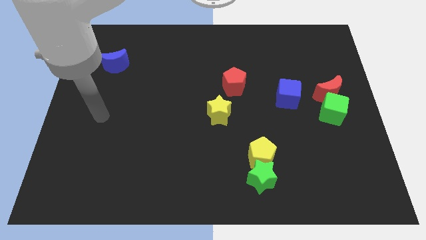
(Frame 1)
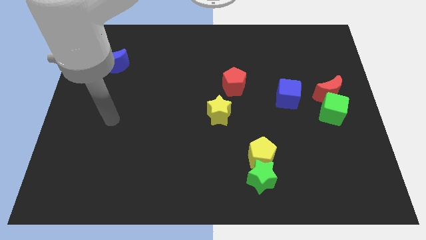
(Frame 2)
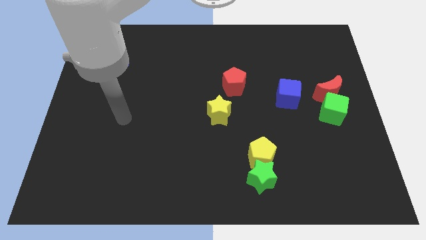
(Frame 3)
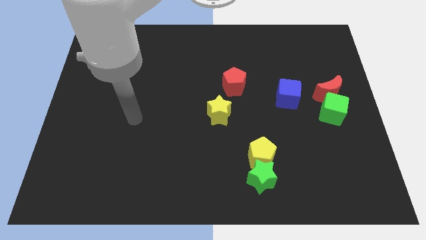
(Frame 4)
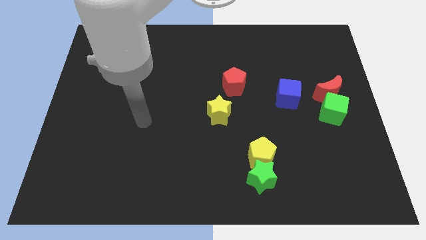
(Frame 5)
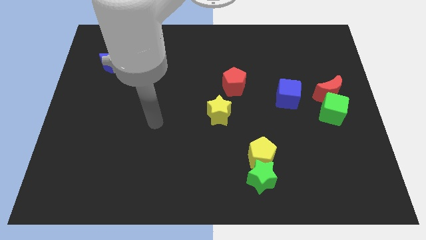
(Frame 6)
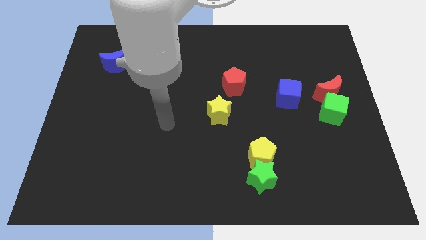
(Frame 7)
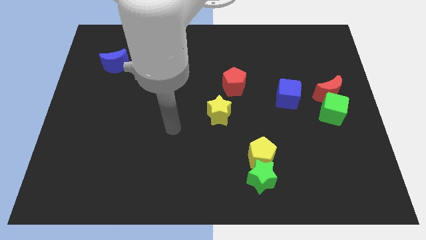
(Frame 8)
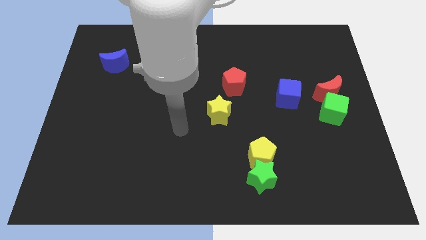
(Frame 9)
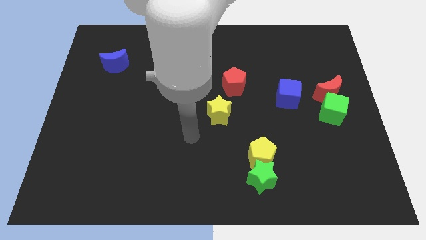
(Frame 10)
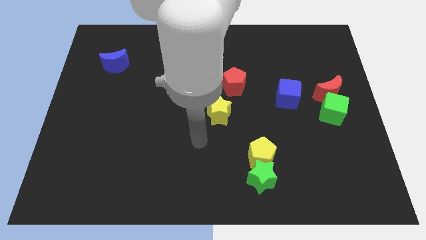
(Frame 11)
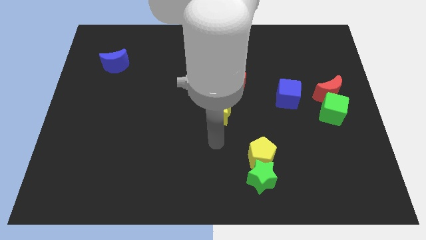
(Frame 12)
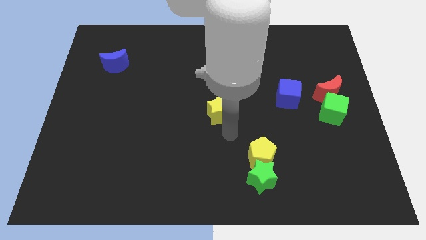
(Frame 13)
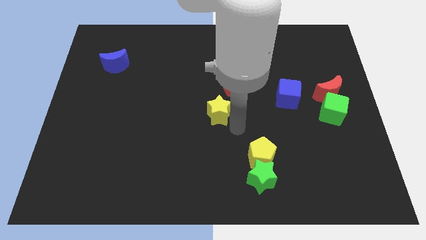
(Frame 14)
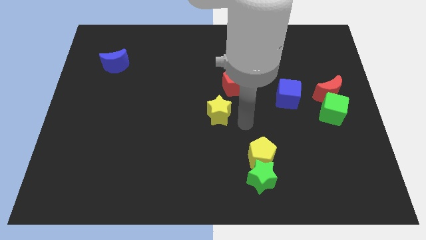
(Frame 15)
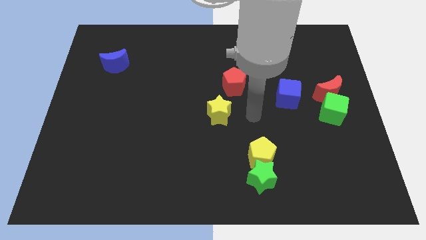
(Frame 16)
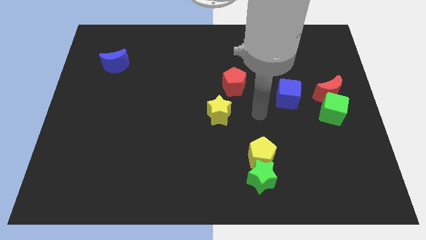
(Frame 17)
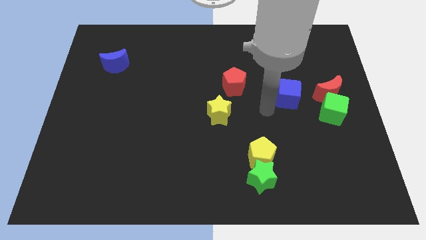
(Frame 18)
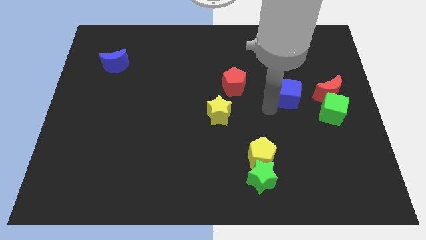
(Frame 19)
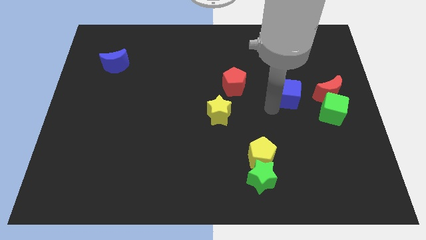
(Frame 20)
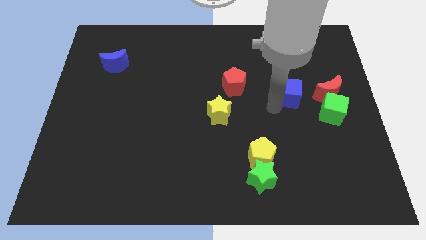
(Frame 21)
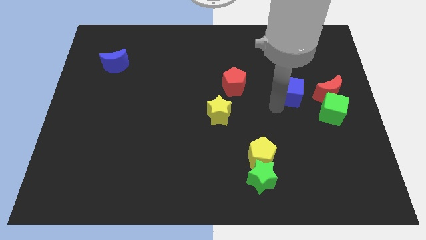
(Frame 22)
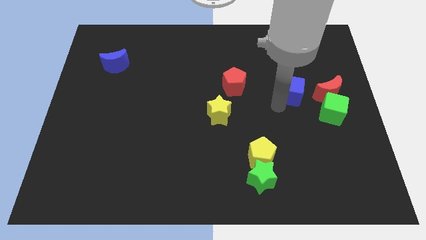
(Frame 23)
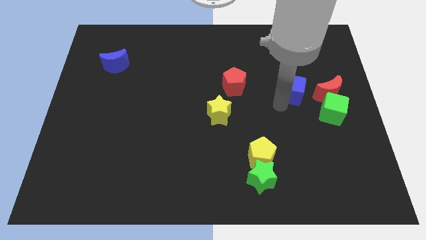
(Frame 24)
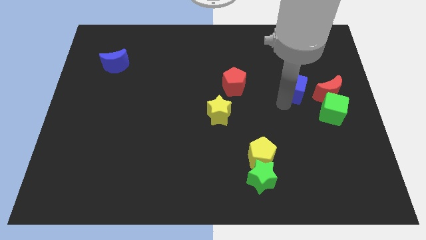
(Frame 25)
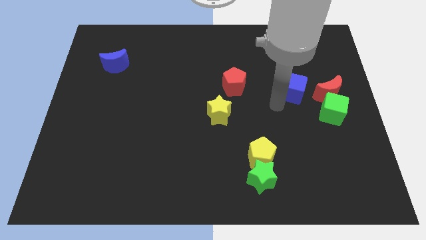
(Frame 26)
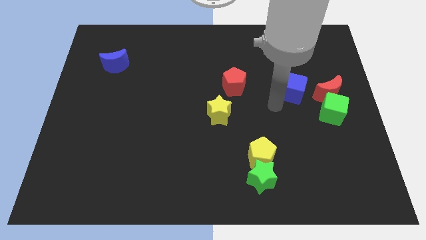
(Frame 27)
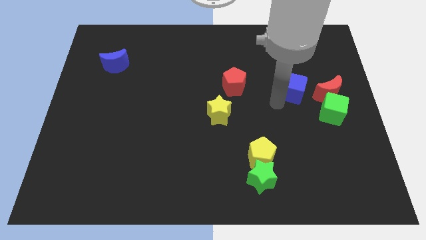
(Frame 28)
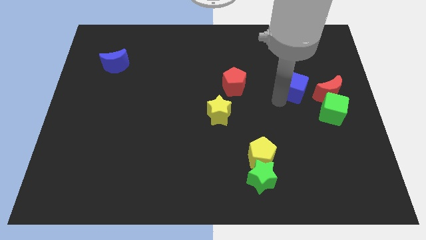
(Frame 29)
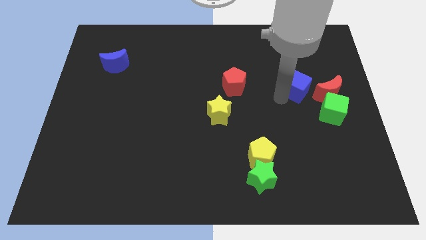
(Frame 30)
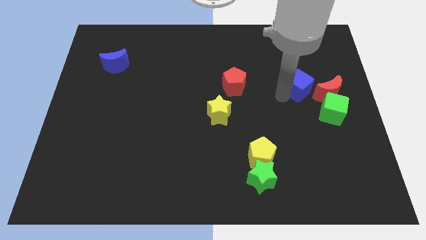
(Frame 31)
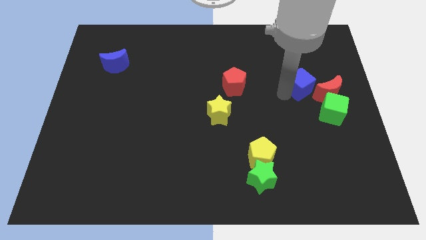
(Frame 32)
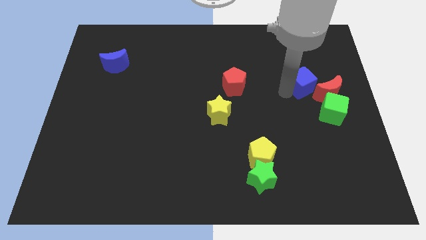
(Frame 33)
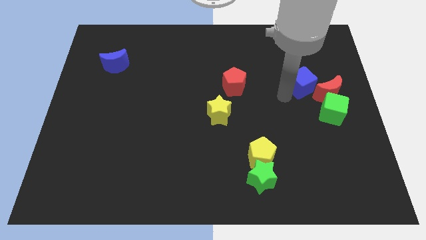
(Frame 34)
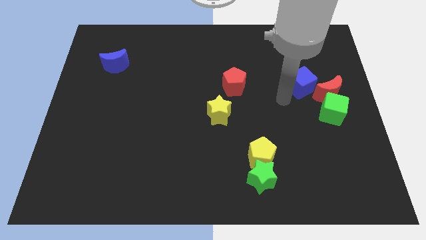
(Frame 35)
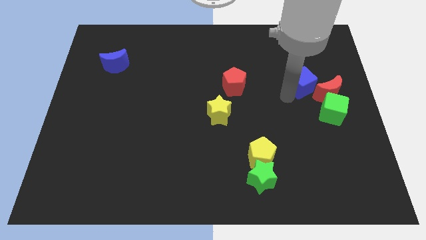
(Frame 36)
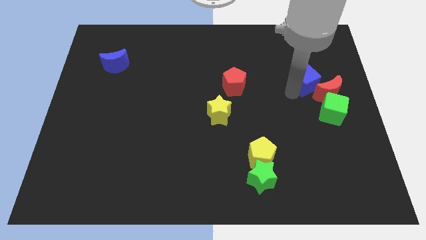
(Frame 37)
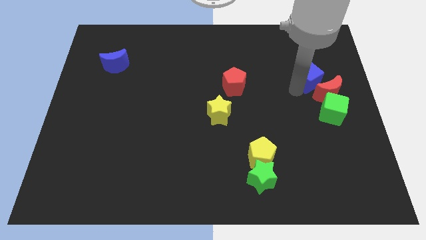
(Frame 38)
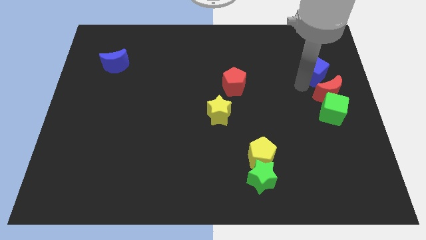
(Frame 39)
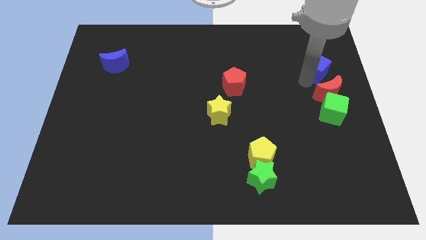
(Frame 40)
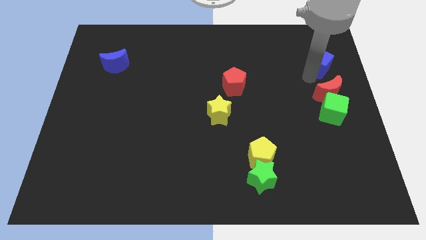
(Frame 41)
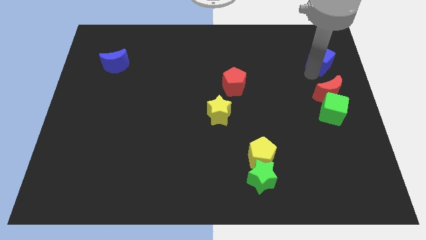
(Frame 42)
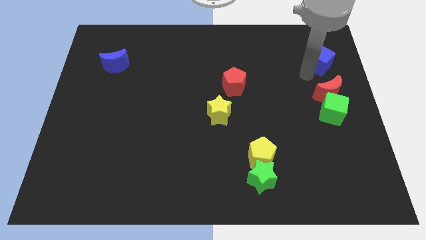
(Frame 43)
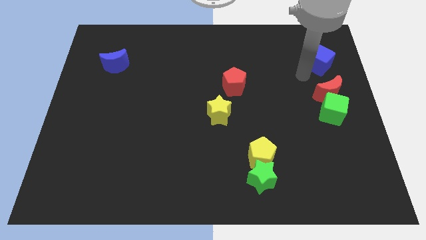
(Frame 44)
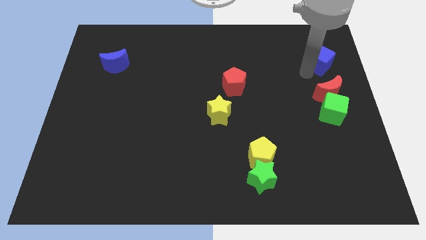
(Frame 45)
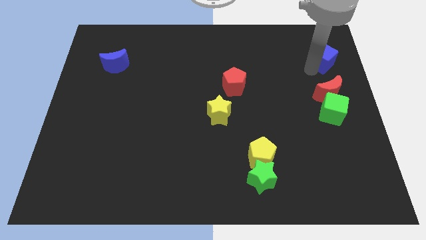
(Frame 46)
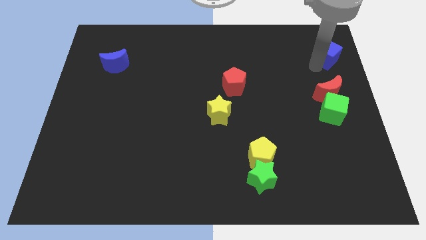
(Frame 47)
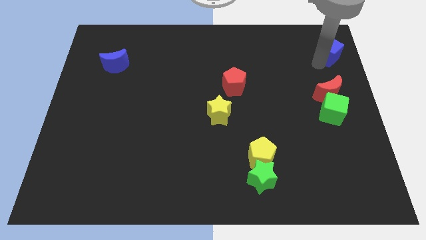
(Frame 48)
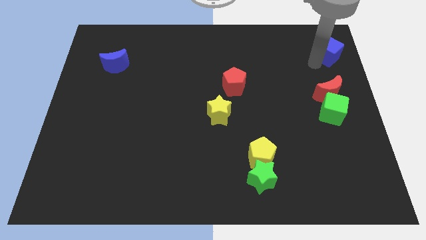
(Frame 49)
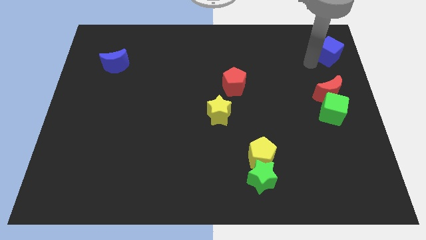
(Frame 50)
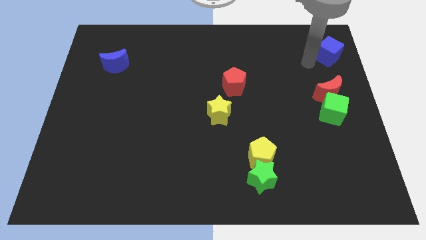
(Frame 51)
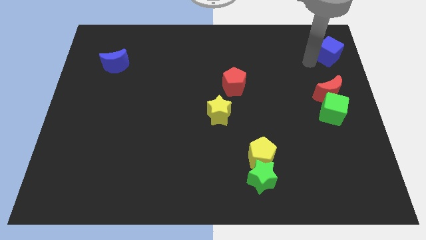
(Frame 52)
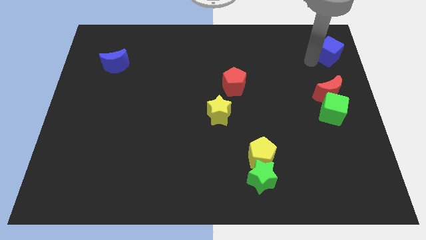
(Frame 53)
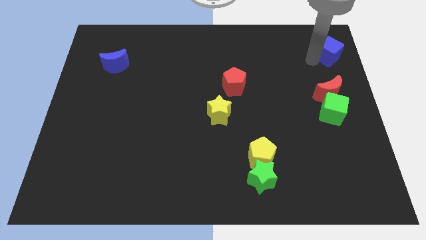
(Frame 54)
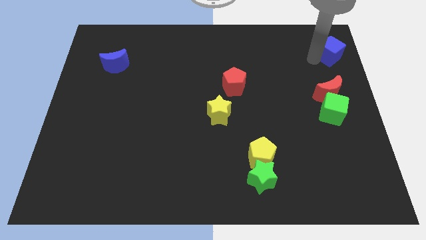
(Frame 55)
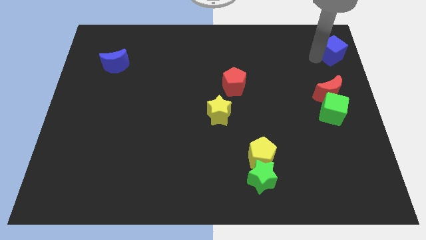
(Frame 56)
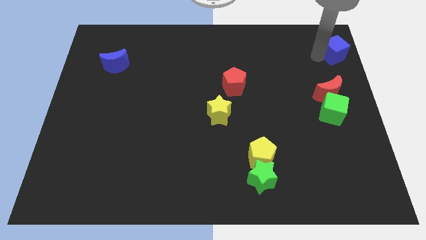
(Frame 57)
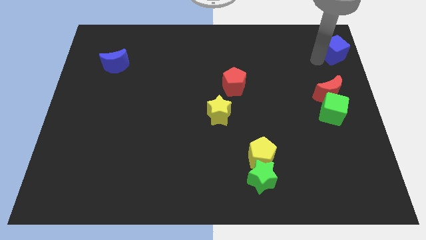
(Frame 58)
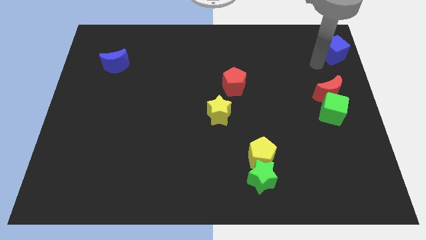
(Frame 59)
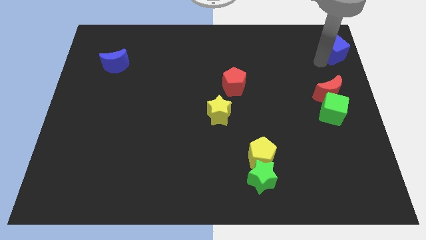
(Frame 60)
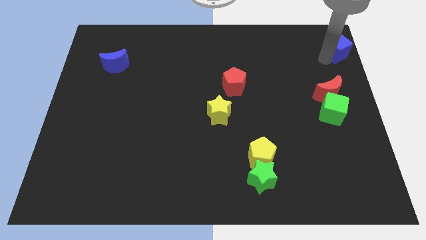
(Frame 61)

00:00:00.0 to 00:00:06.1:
put the blue cube to the top right of the board
